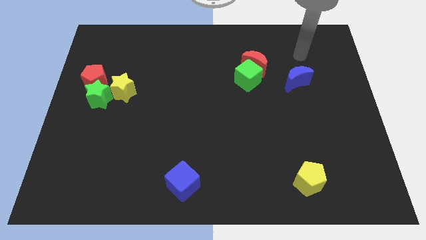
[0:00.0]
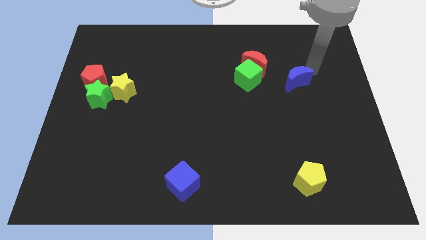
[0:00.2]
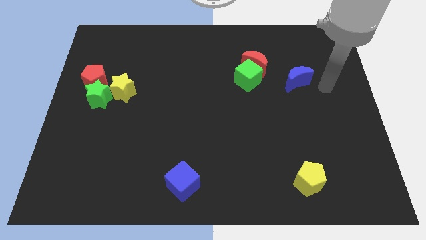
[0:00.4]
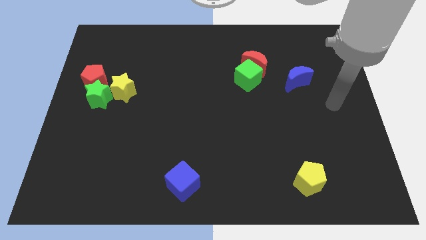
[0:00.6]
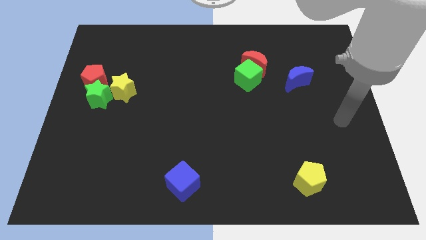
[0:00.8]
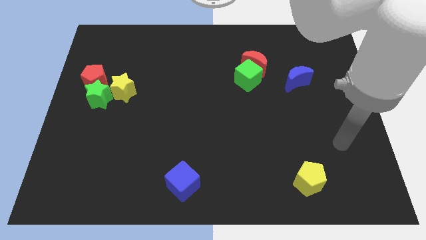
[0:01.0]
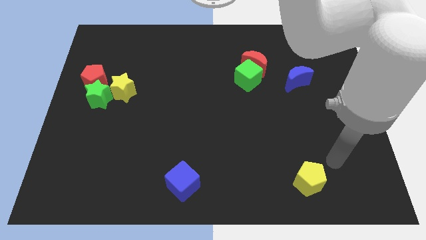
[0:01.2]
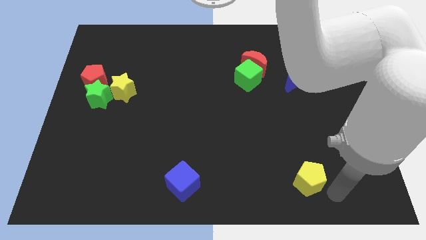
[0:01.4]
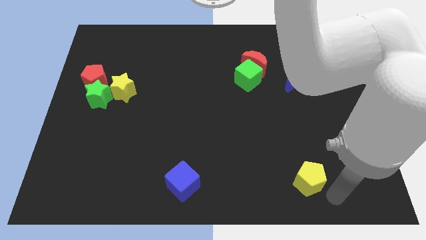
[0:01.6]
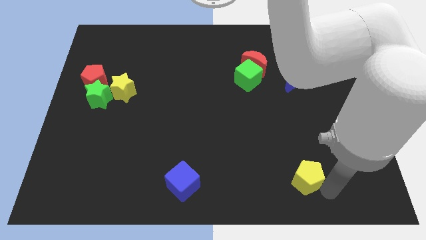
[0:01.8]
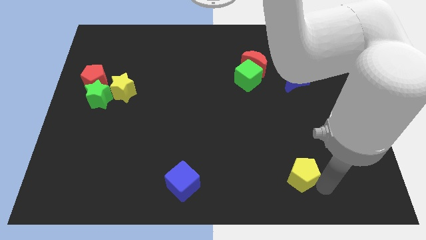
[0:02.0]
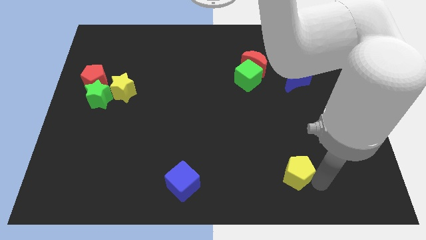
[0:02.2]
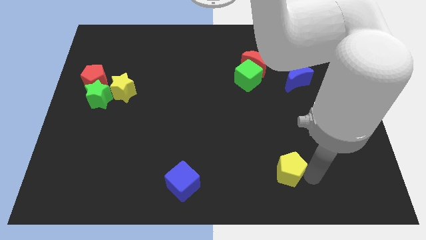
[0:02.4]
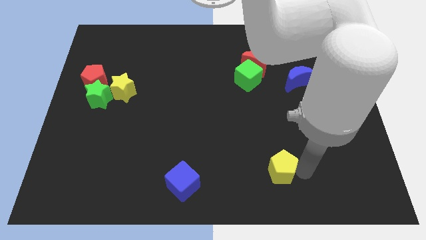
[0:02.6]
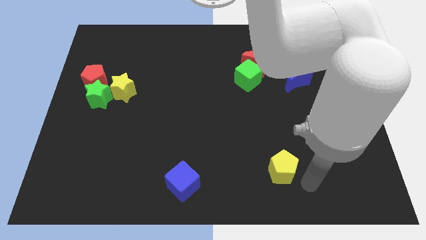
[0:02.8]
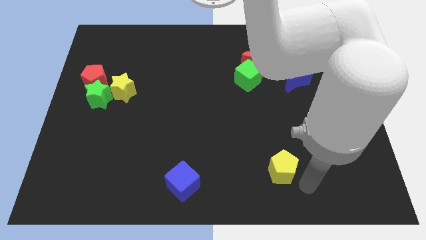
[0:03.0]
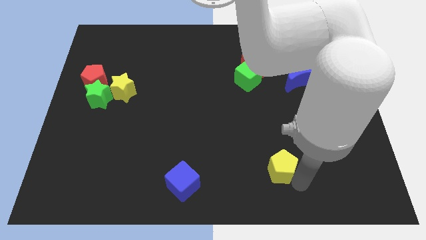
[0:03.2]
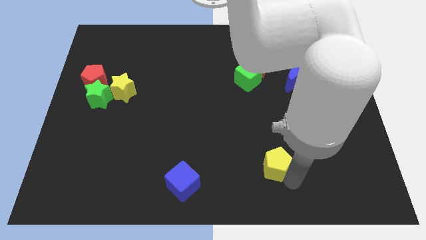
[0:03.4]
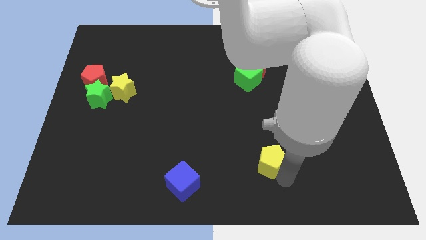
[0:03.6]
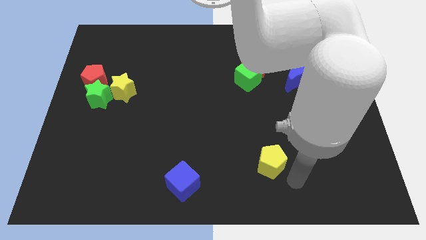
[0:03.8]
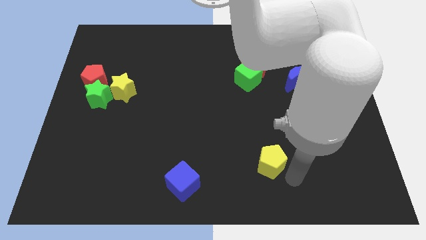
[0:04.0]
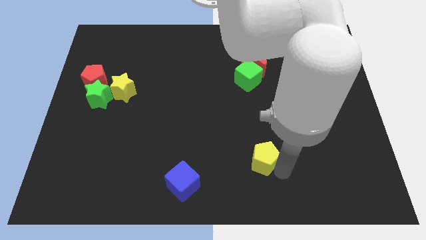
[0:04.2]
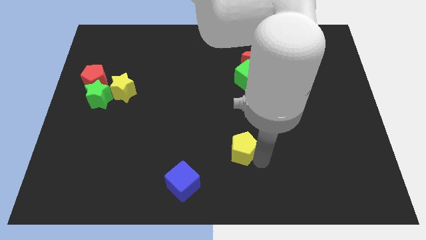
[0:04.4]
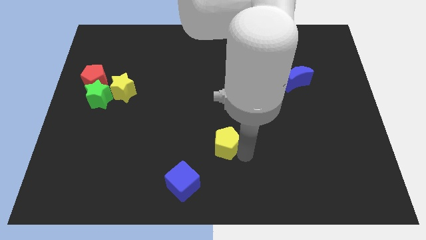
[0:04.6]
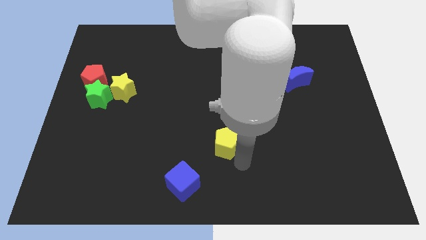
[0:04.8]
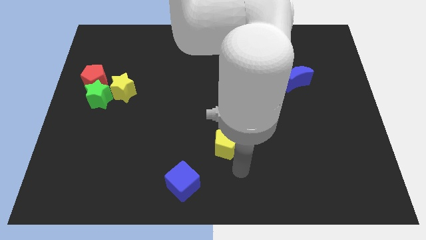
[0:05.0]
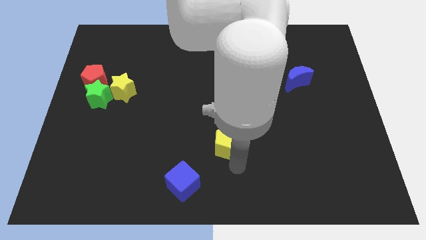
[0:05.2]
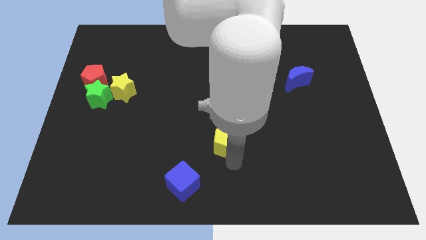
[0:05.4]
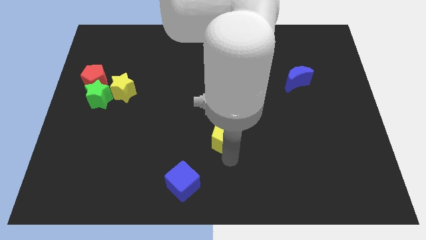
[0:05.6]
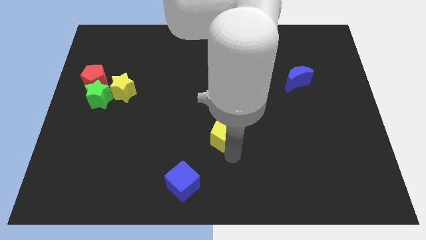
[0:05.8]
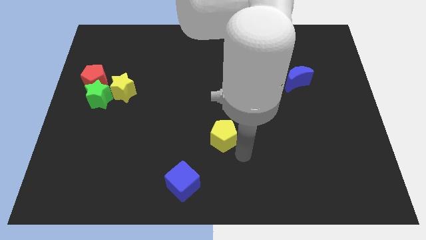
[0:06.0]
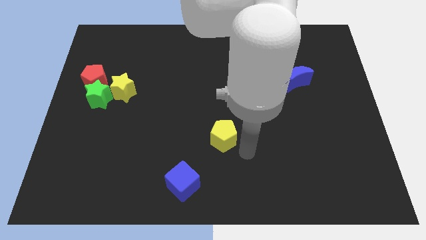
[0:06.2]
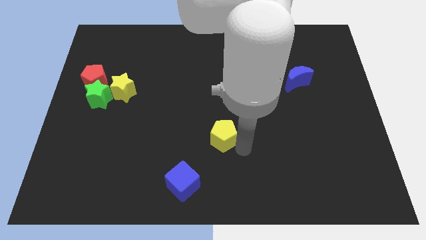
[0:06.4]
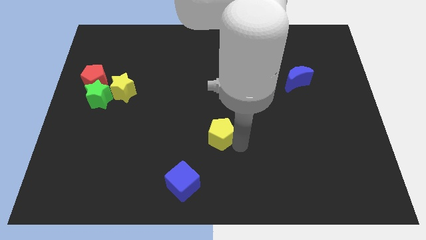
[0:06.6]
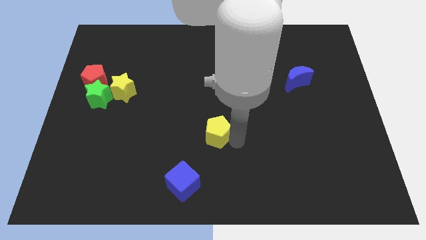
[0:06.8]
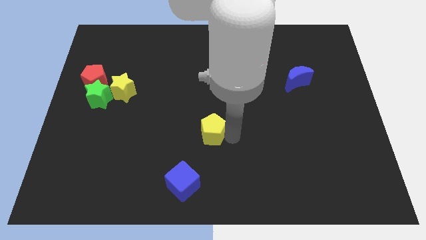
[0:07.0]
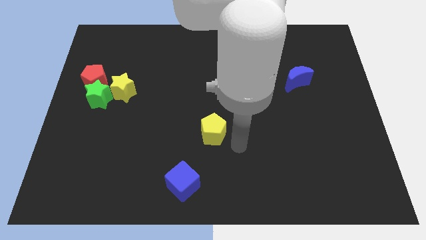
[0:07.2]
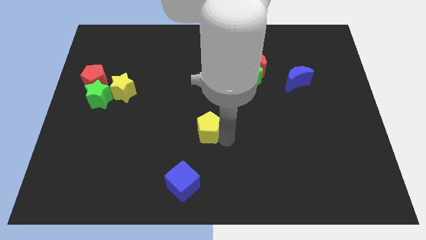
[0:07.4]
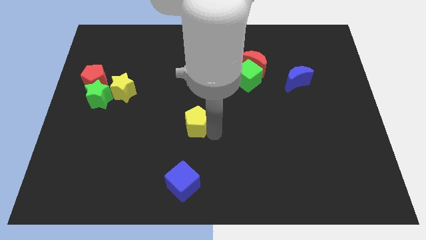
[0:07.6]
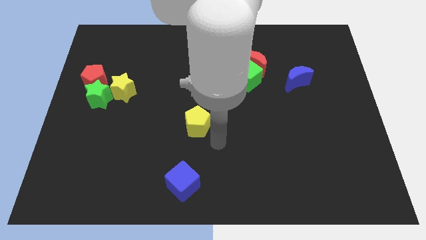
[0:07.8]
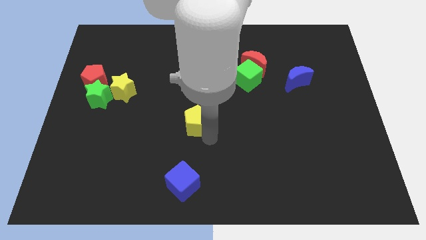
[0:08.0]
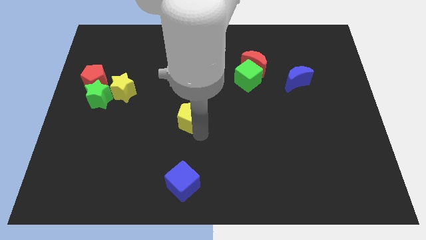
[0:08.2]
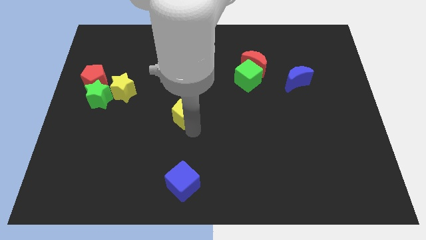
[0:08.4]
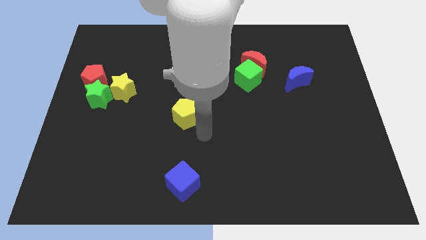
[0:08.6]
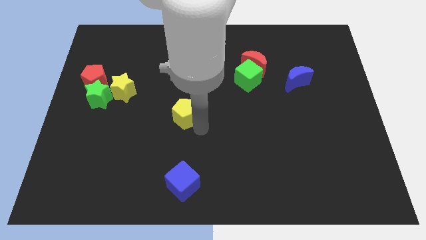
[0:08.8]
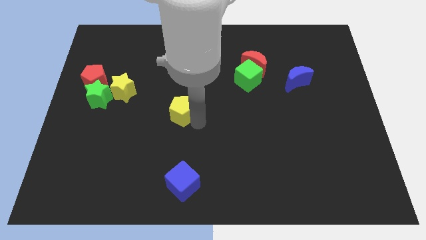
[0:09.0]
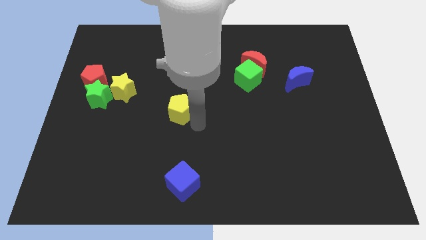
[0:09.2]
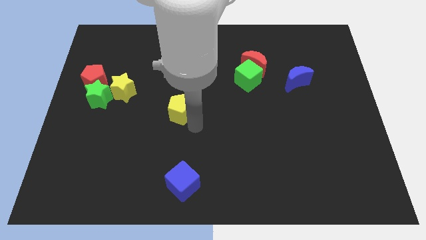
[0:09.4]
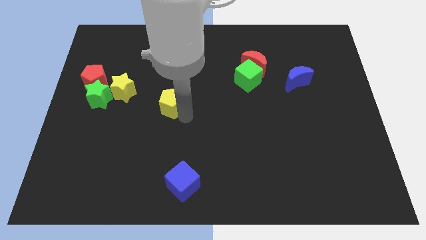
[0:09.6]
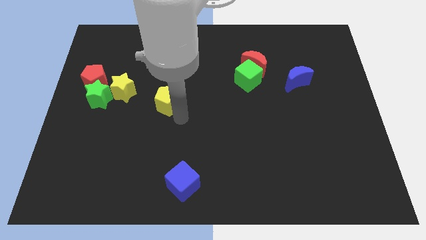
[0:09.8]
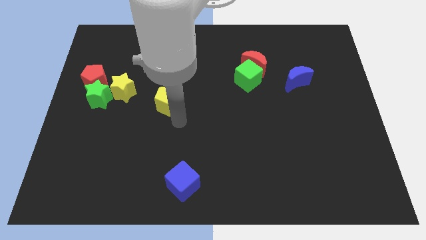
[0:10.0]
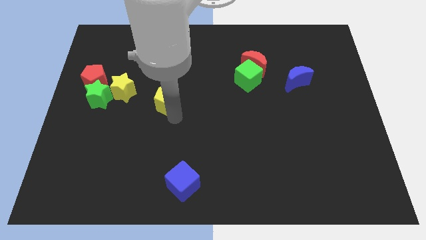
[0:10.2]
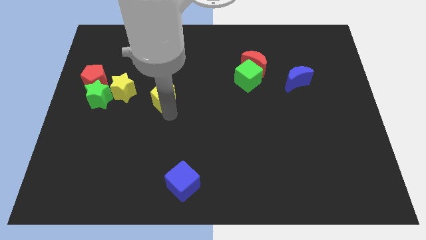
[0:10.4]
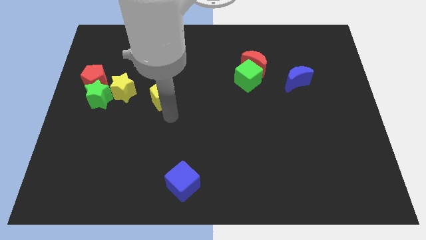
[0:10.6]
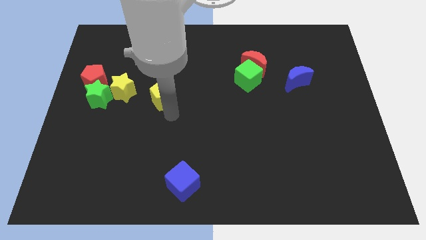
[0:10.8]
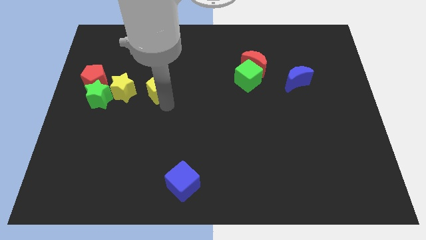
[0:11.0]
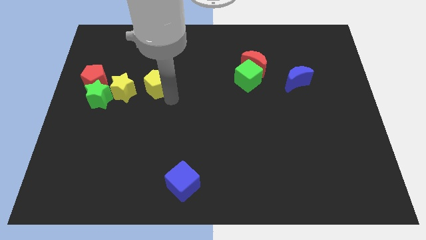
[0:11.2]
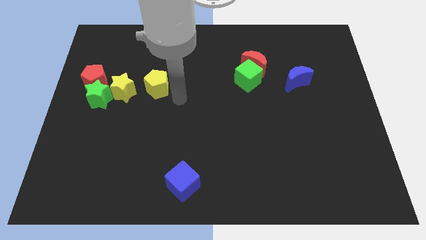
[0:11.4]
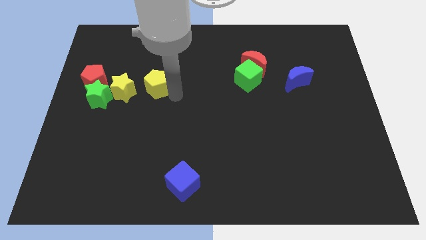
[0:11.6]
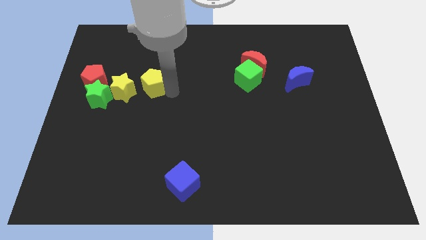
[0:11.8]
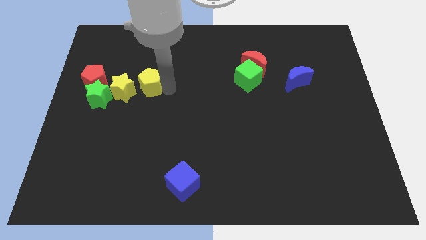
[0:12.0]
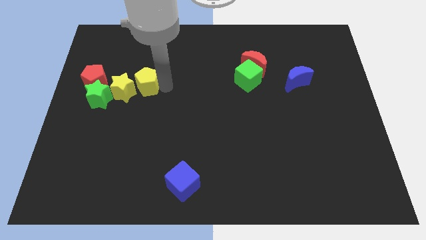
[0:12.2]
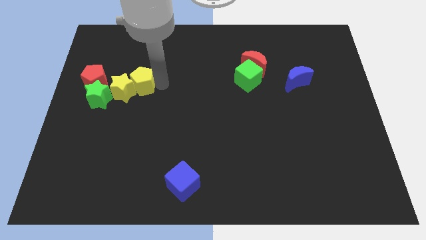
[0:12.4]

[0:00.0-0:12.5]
put the yellow pentagon to the top right of the green star

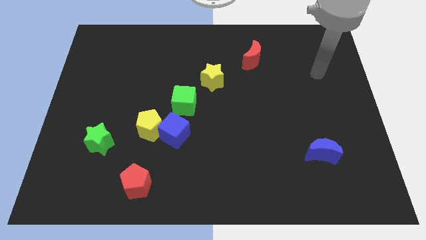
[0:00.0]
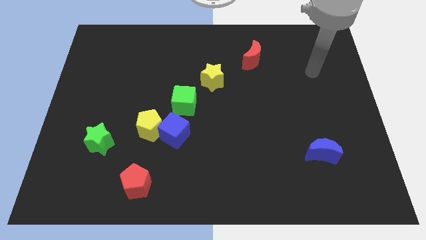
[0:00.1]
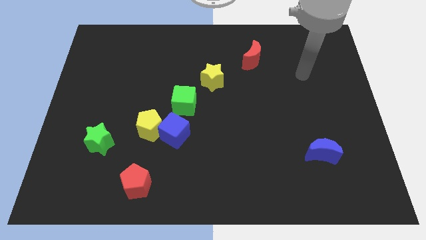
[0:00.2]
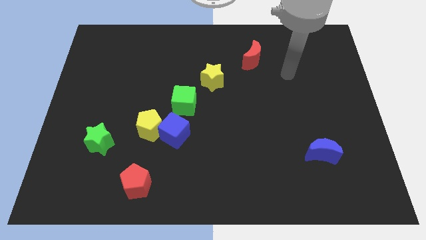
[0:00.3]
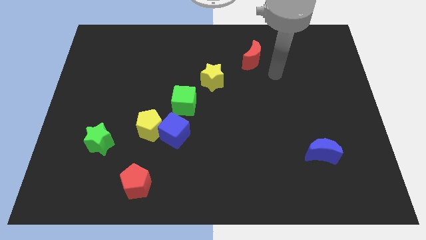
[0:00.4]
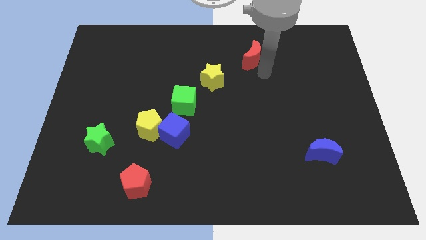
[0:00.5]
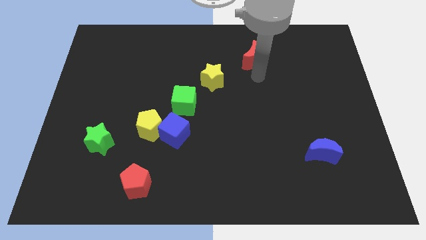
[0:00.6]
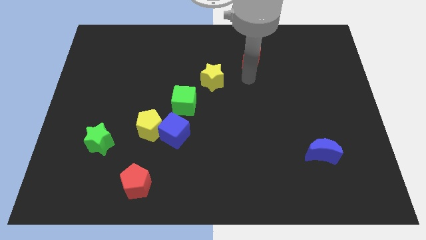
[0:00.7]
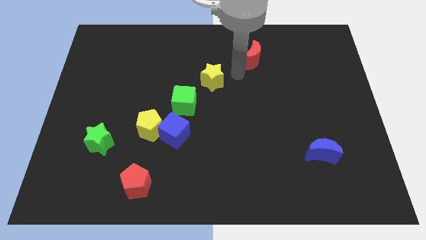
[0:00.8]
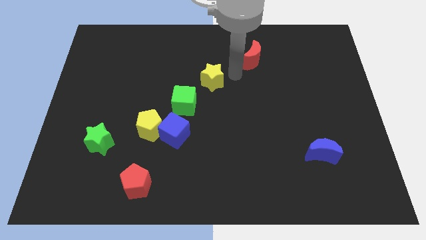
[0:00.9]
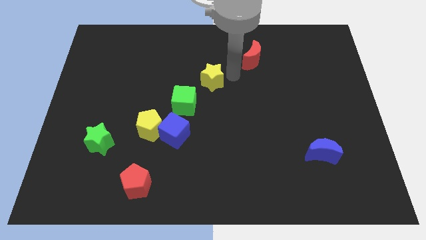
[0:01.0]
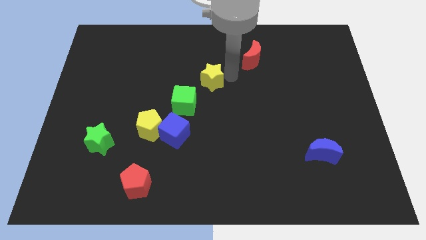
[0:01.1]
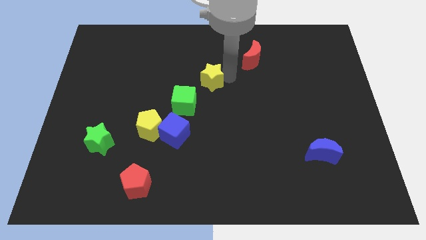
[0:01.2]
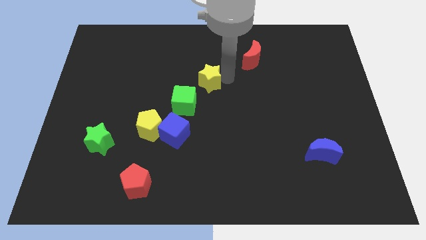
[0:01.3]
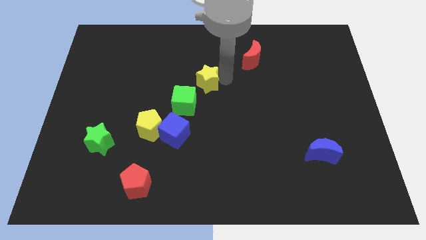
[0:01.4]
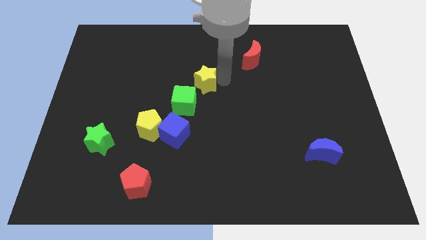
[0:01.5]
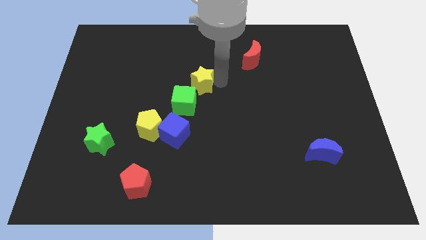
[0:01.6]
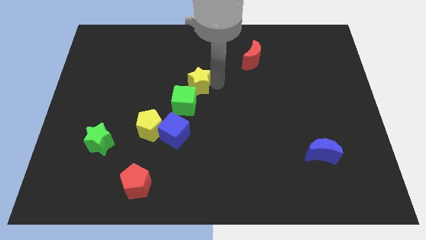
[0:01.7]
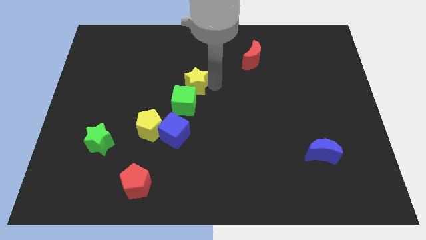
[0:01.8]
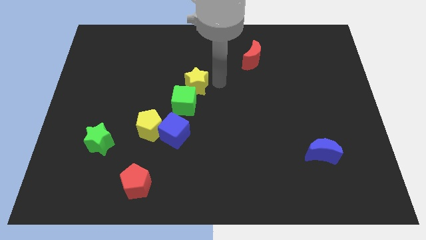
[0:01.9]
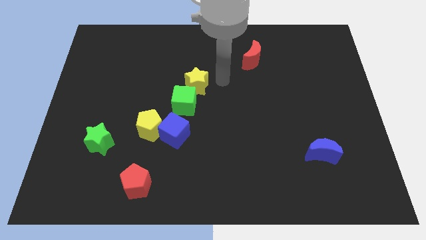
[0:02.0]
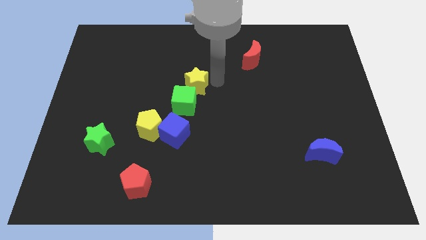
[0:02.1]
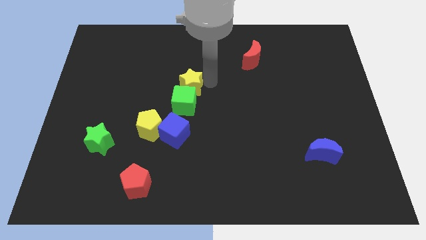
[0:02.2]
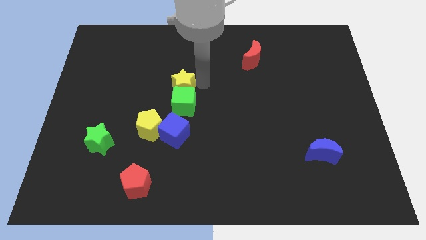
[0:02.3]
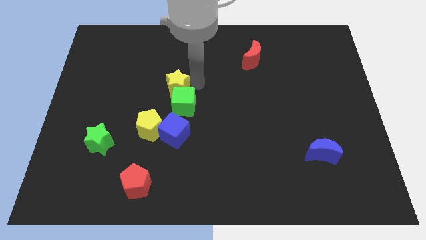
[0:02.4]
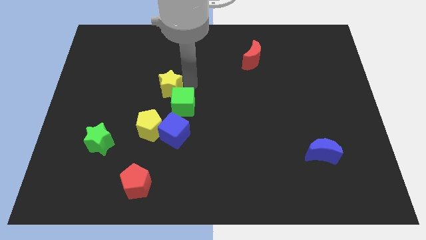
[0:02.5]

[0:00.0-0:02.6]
put the yellow star to the top of the yellow pentagon
